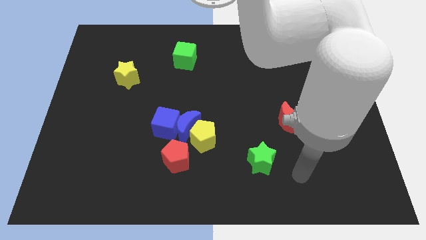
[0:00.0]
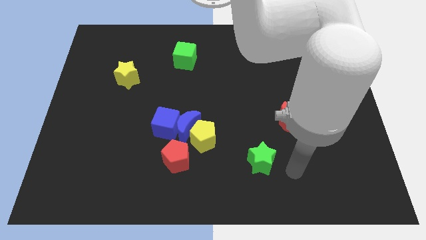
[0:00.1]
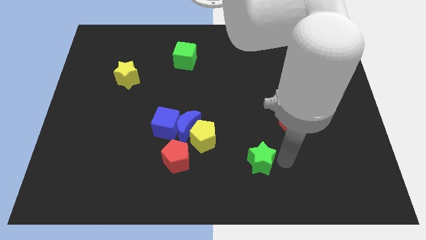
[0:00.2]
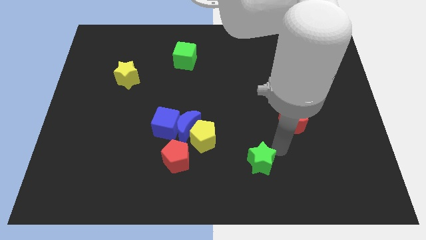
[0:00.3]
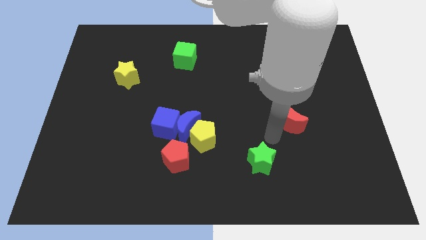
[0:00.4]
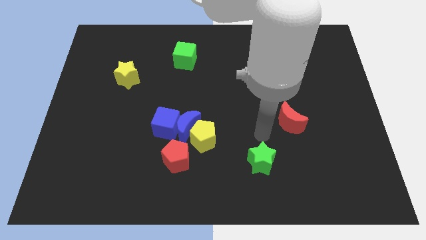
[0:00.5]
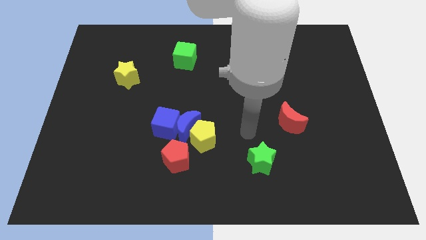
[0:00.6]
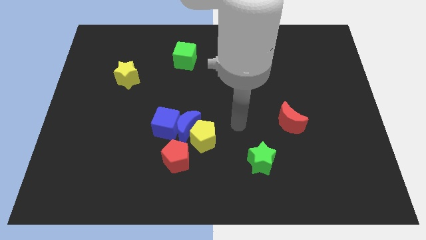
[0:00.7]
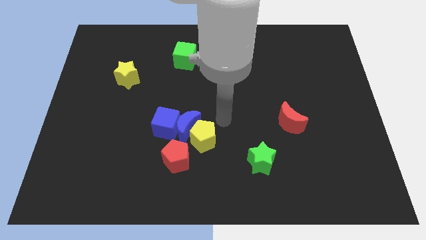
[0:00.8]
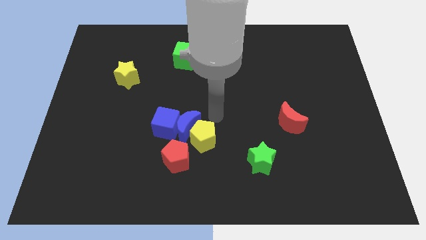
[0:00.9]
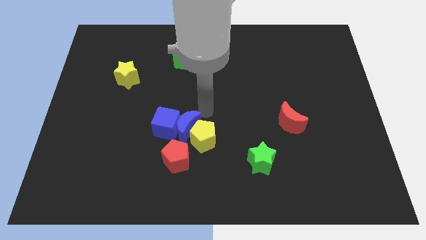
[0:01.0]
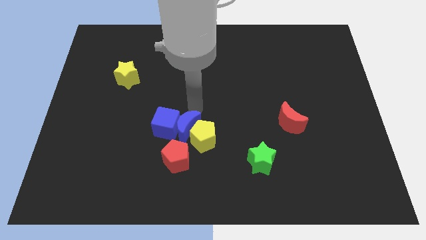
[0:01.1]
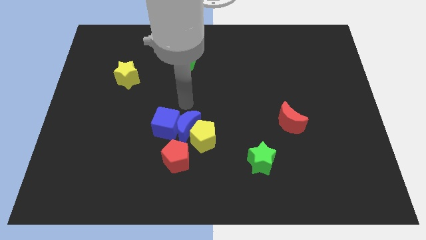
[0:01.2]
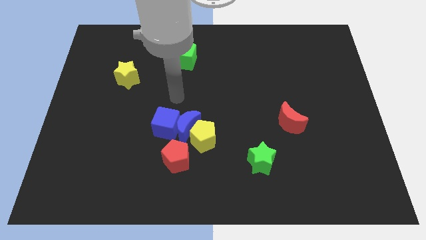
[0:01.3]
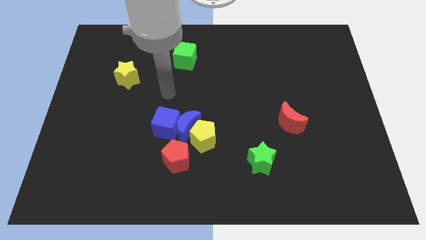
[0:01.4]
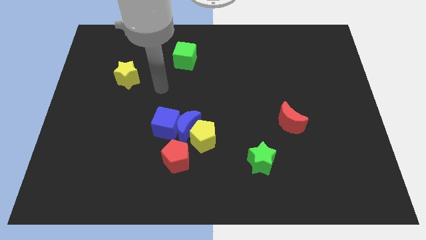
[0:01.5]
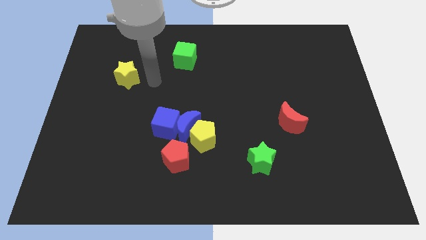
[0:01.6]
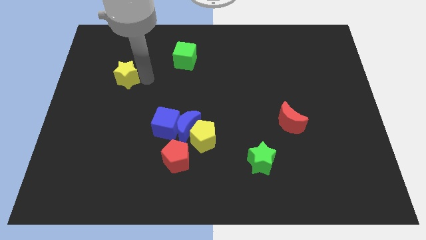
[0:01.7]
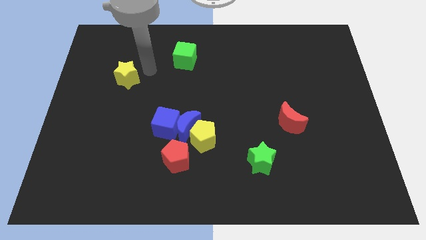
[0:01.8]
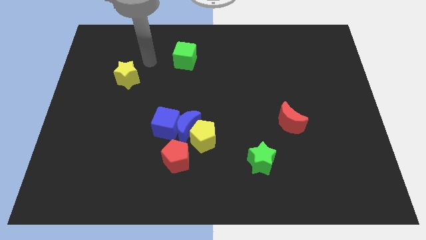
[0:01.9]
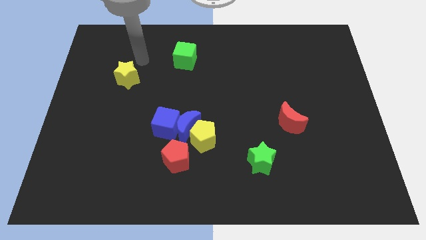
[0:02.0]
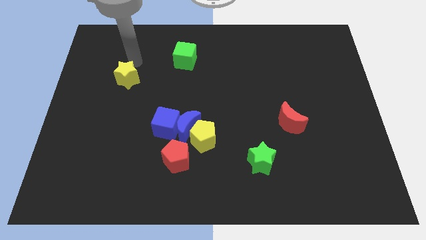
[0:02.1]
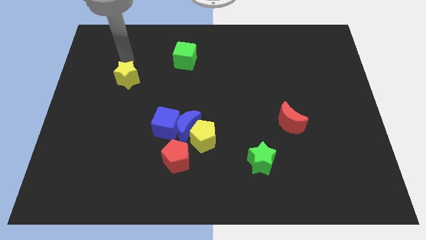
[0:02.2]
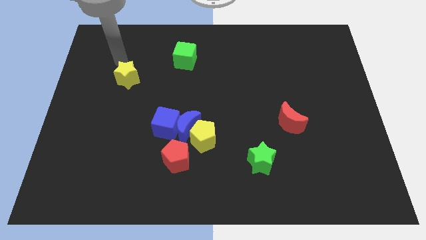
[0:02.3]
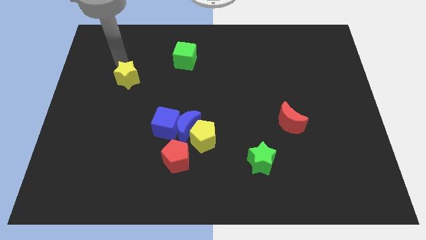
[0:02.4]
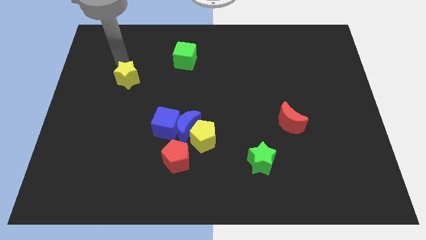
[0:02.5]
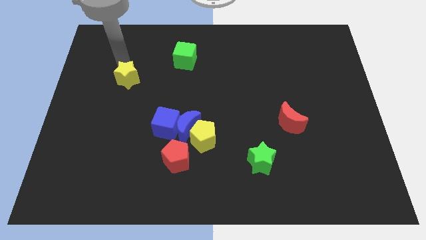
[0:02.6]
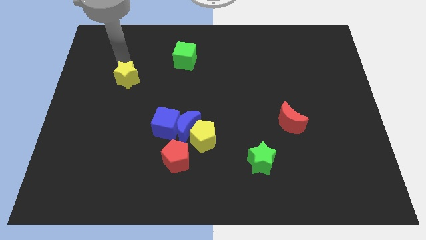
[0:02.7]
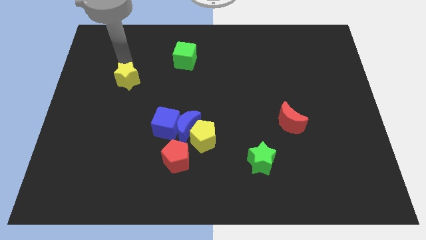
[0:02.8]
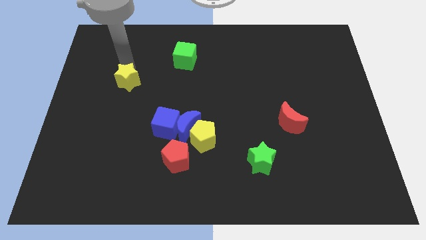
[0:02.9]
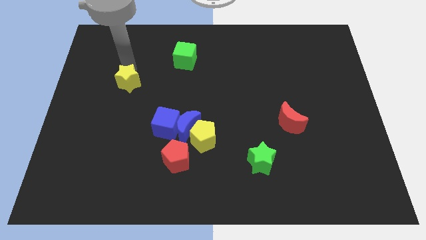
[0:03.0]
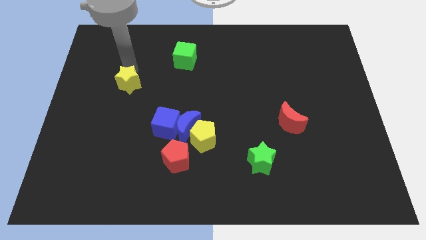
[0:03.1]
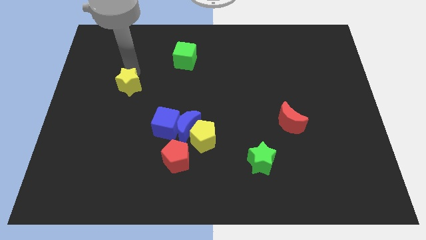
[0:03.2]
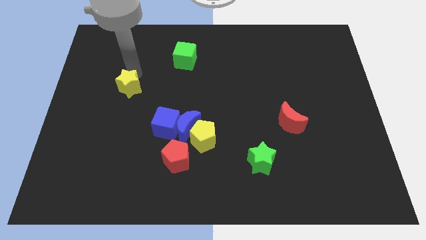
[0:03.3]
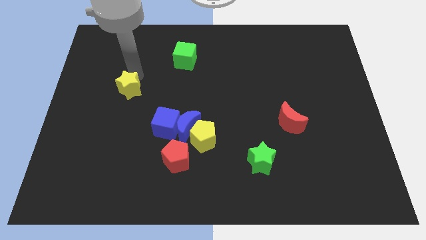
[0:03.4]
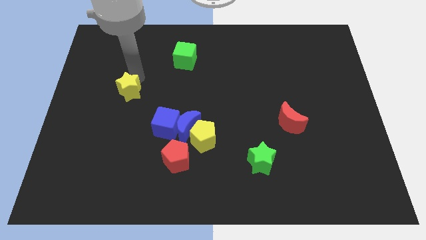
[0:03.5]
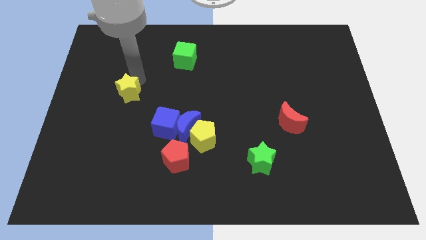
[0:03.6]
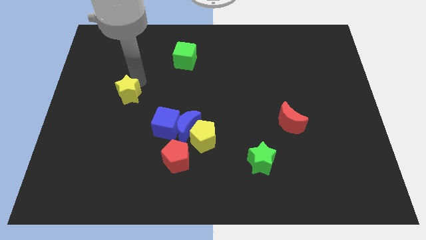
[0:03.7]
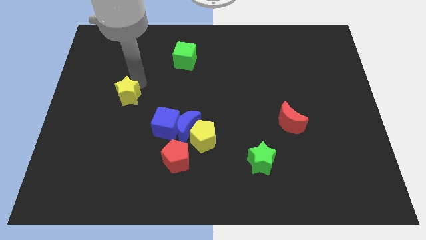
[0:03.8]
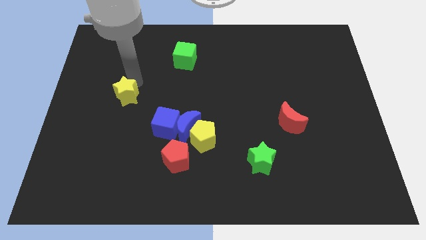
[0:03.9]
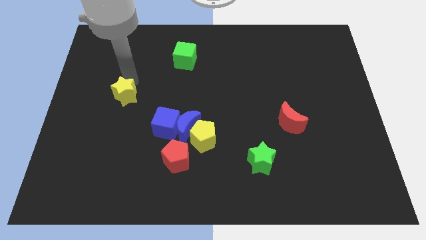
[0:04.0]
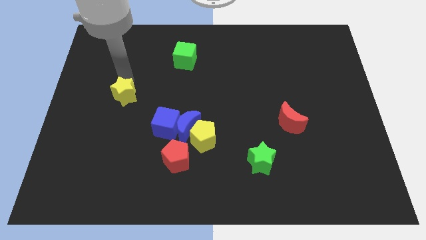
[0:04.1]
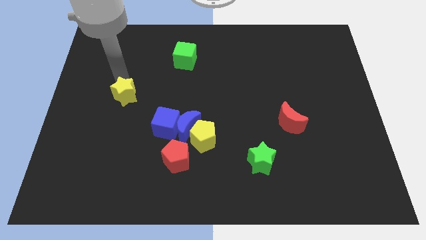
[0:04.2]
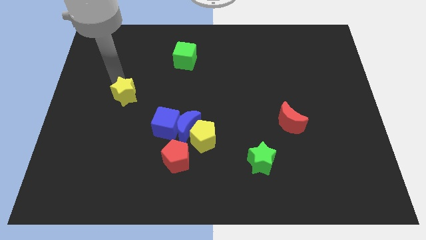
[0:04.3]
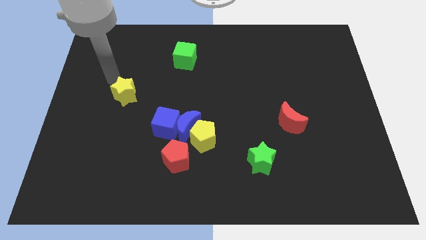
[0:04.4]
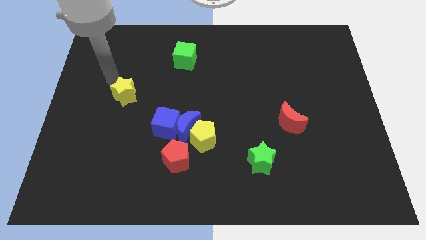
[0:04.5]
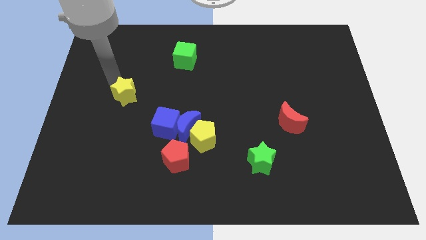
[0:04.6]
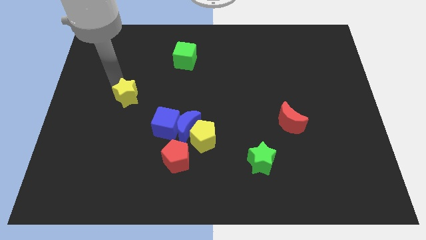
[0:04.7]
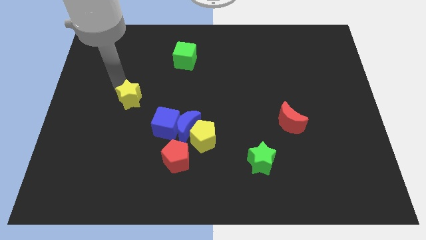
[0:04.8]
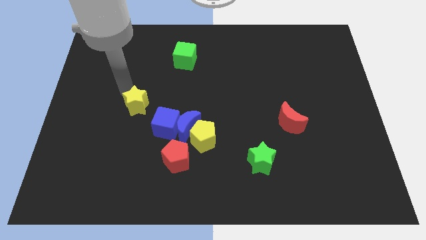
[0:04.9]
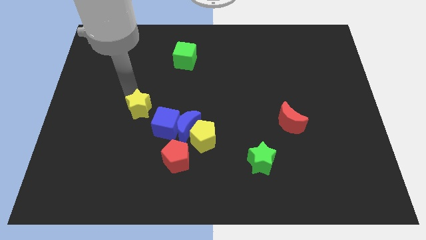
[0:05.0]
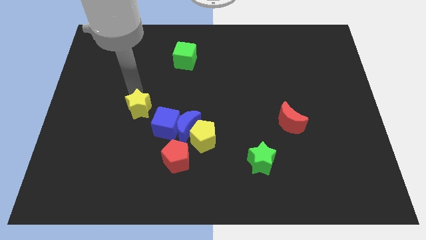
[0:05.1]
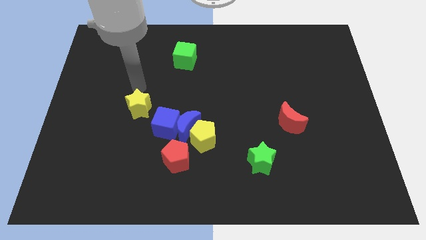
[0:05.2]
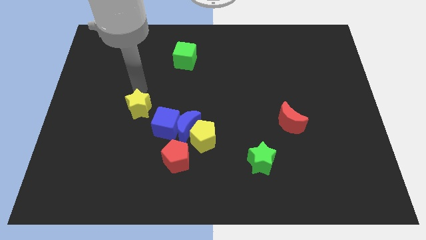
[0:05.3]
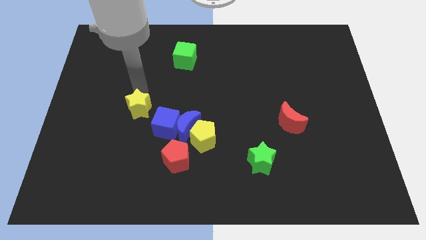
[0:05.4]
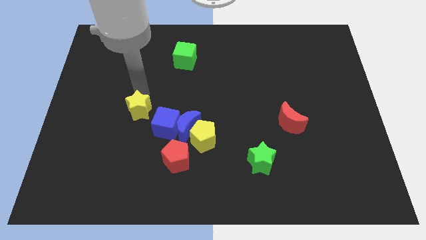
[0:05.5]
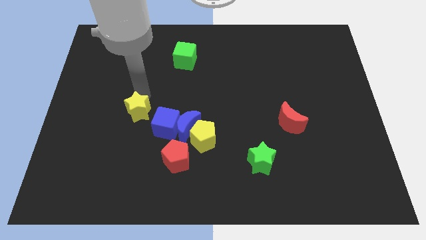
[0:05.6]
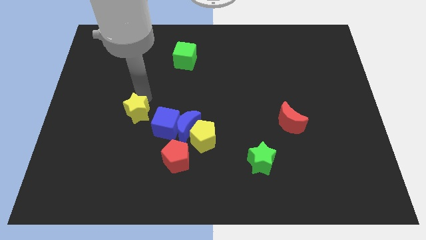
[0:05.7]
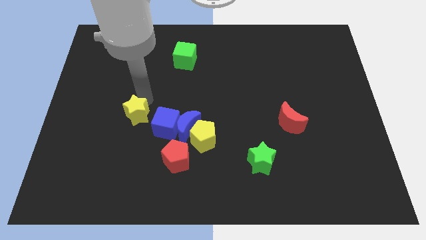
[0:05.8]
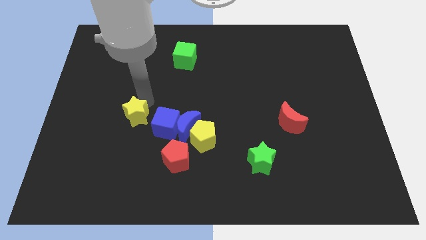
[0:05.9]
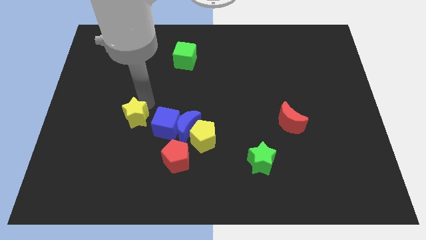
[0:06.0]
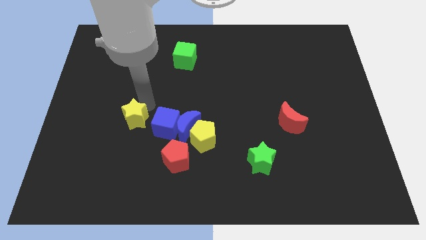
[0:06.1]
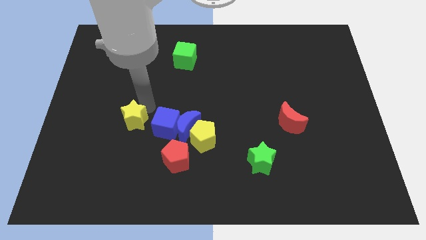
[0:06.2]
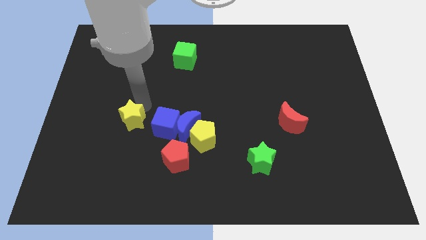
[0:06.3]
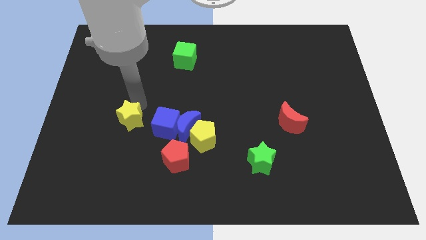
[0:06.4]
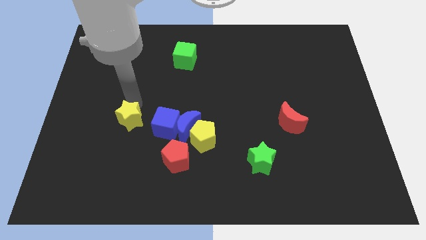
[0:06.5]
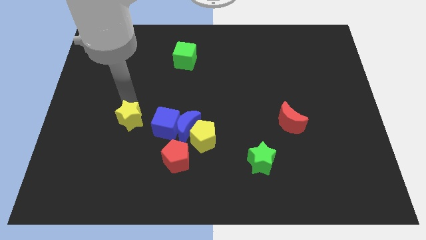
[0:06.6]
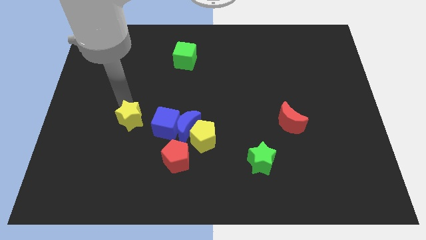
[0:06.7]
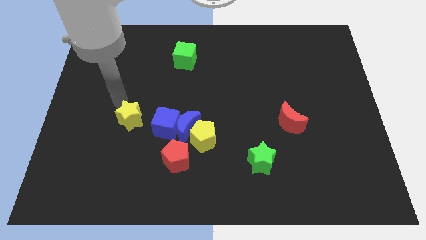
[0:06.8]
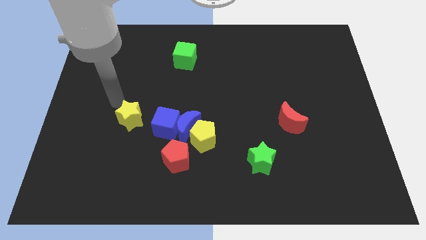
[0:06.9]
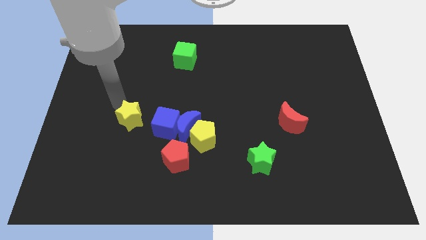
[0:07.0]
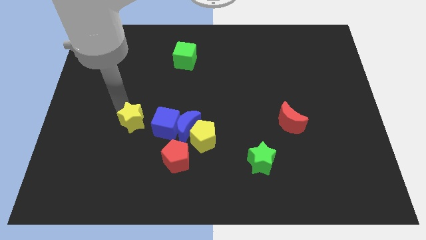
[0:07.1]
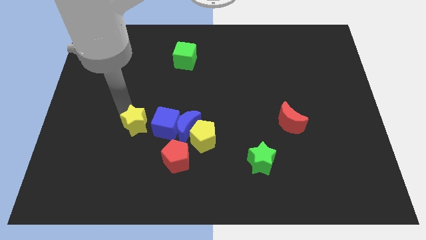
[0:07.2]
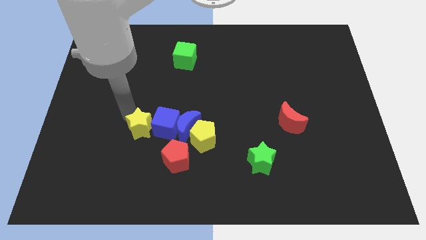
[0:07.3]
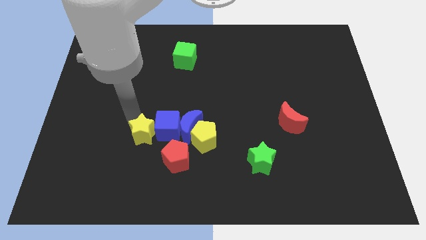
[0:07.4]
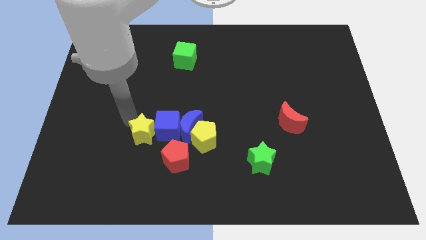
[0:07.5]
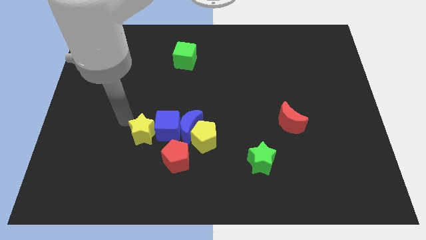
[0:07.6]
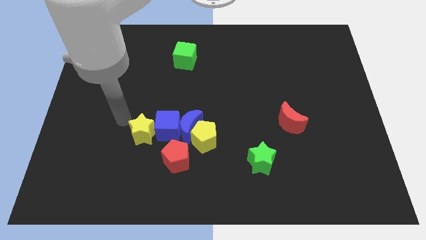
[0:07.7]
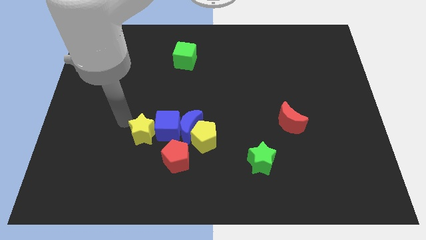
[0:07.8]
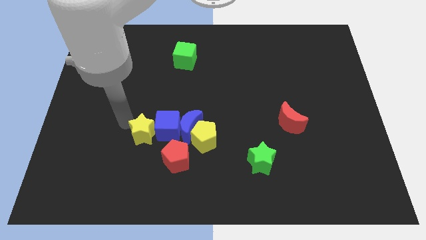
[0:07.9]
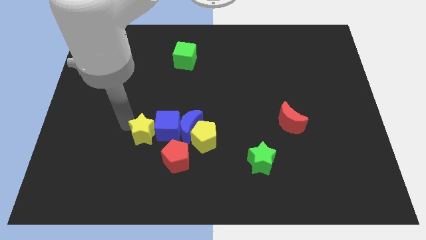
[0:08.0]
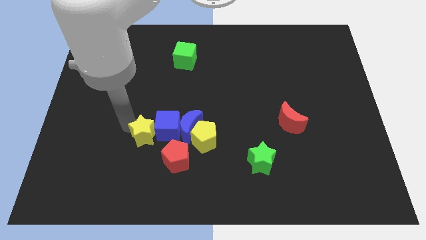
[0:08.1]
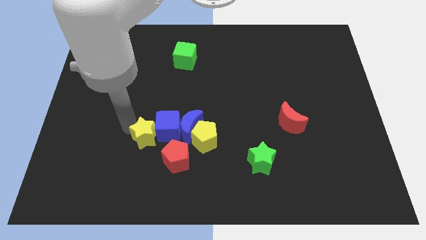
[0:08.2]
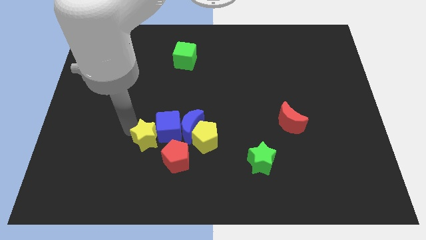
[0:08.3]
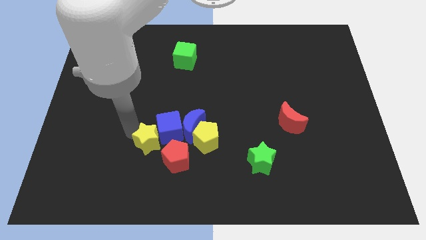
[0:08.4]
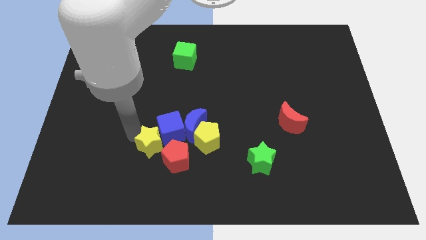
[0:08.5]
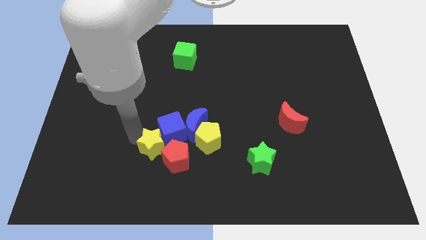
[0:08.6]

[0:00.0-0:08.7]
push the yellow star close to the red pentagon
